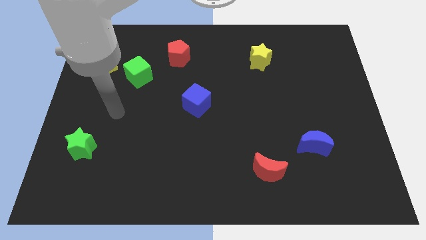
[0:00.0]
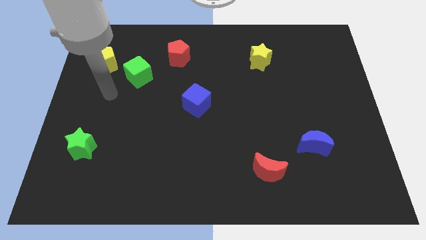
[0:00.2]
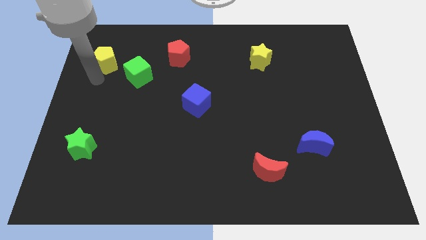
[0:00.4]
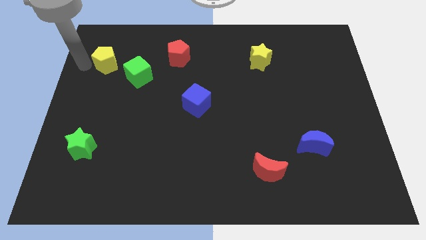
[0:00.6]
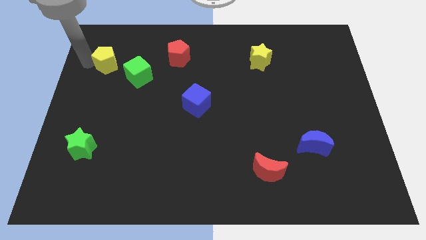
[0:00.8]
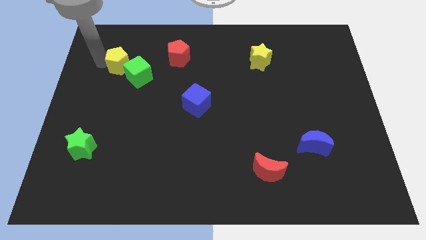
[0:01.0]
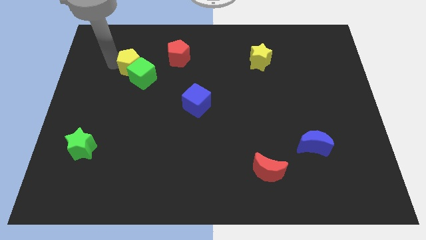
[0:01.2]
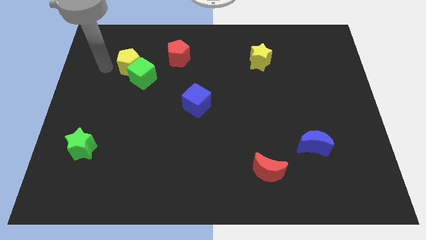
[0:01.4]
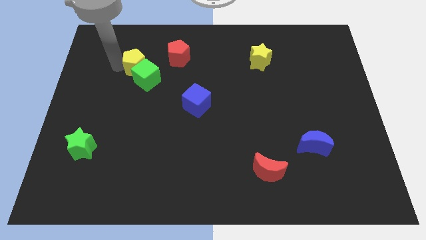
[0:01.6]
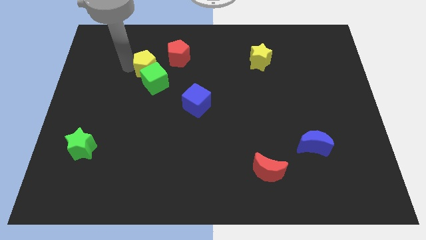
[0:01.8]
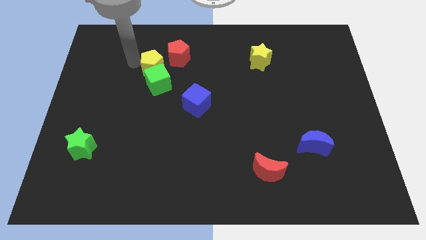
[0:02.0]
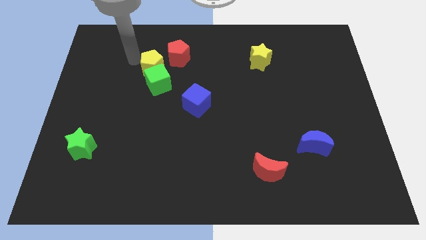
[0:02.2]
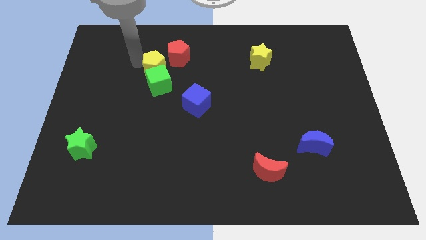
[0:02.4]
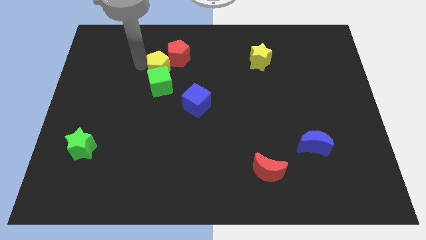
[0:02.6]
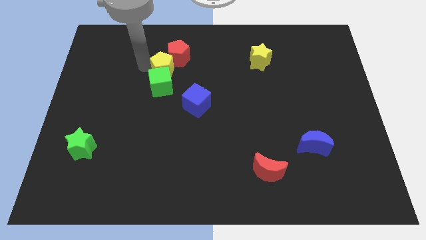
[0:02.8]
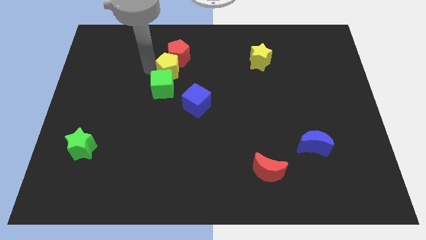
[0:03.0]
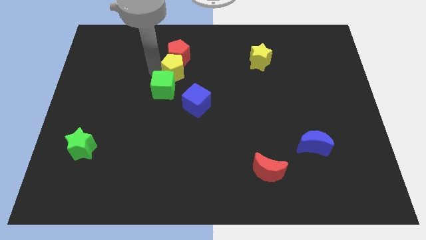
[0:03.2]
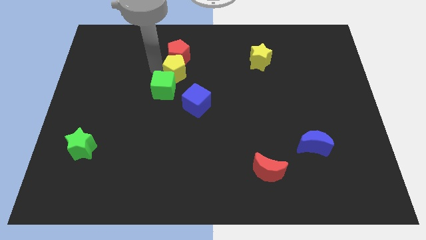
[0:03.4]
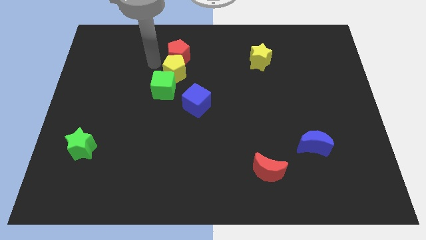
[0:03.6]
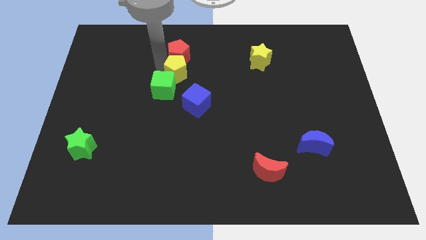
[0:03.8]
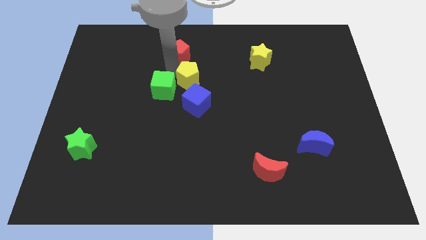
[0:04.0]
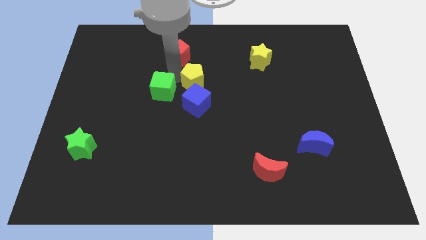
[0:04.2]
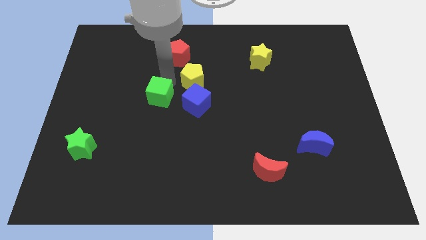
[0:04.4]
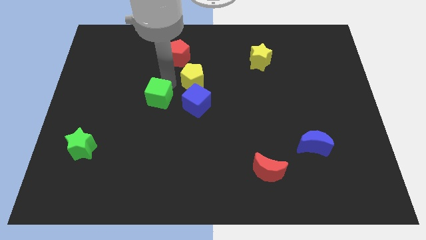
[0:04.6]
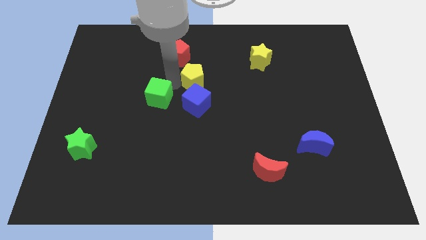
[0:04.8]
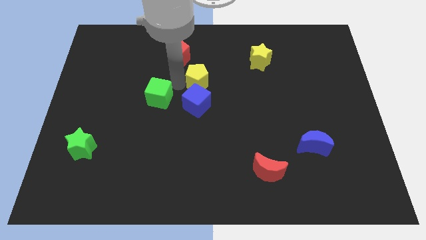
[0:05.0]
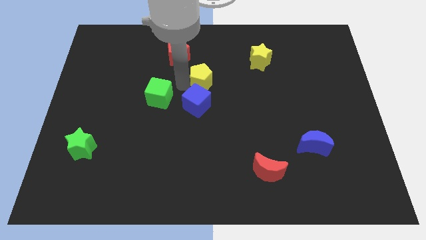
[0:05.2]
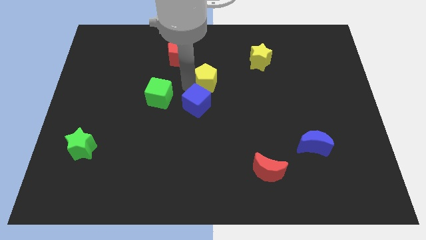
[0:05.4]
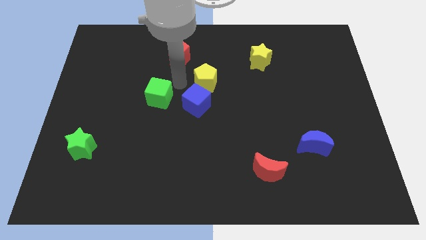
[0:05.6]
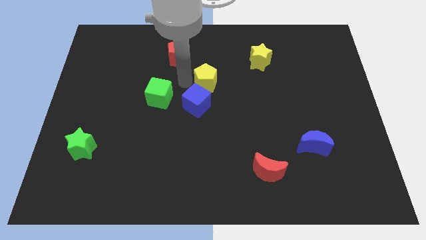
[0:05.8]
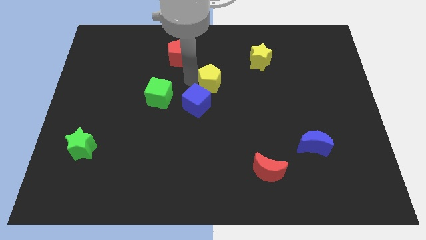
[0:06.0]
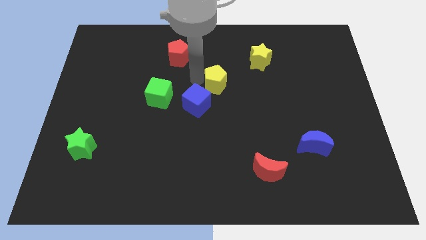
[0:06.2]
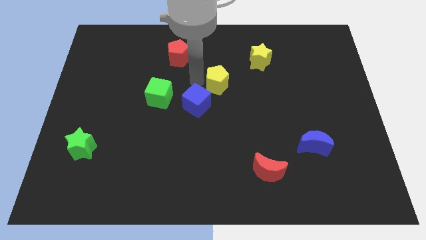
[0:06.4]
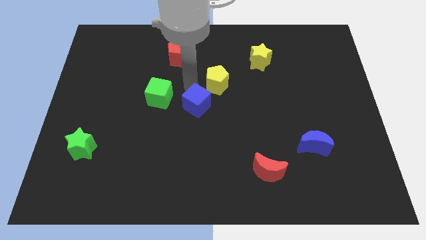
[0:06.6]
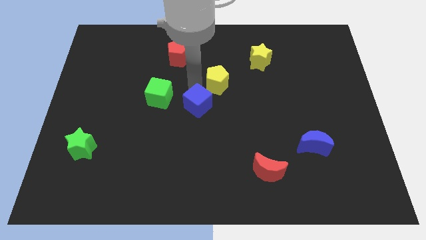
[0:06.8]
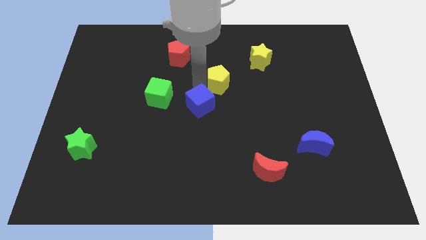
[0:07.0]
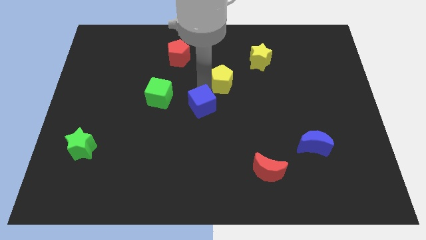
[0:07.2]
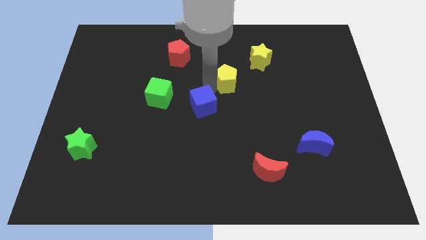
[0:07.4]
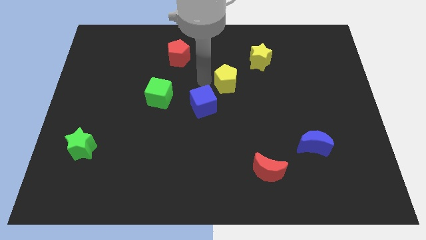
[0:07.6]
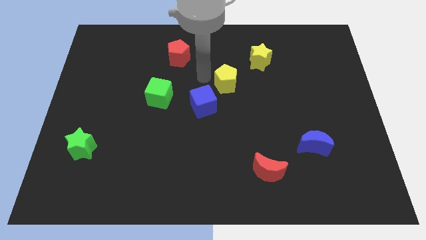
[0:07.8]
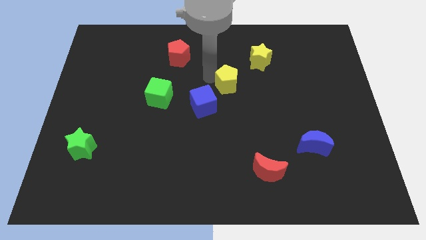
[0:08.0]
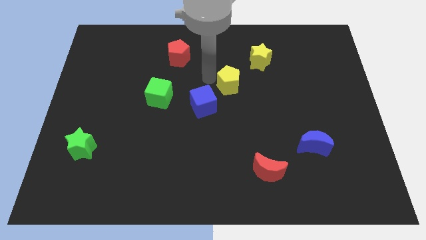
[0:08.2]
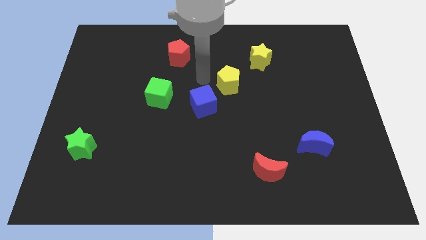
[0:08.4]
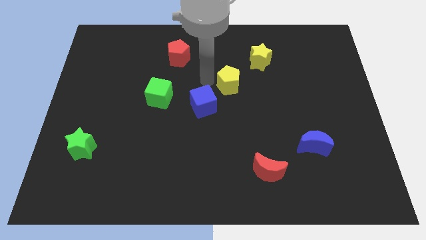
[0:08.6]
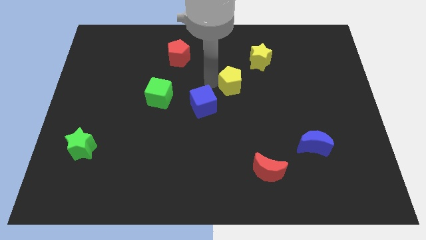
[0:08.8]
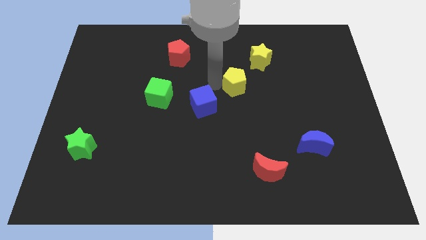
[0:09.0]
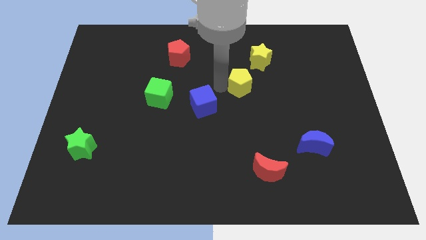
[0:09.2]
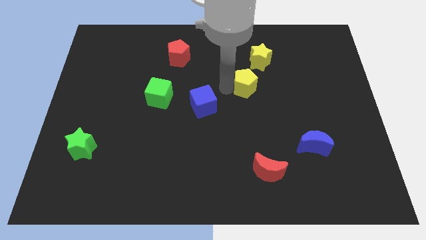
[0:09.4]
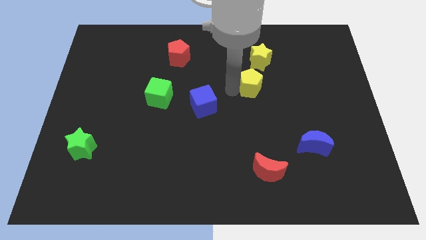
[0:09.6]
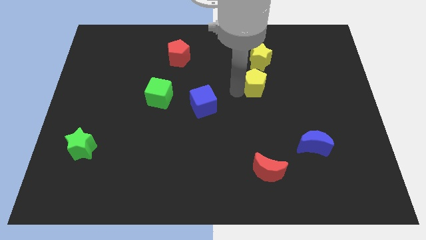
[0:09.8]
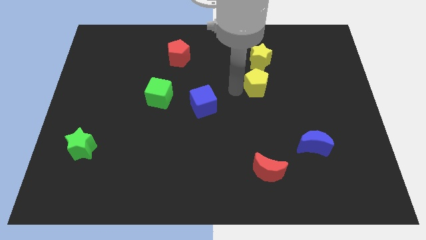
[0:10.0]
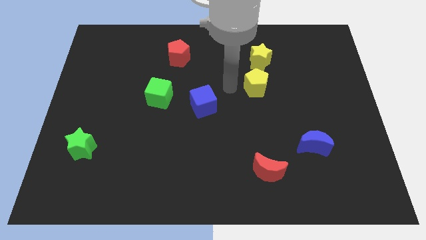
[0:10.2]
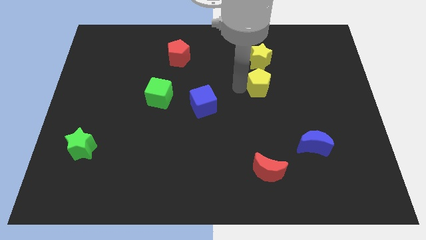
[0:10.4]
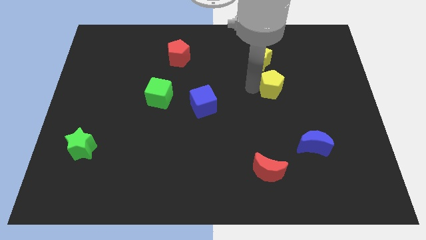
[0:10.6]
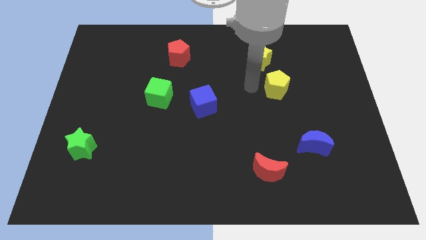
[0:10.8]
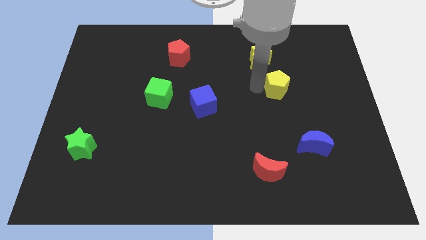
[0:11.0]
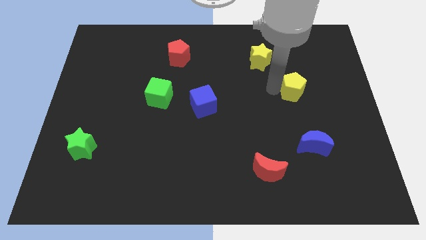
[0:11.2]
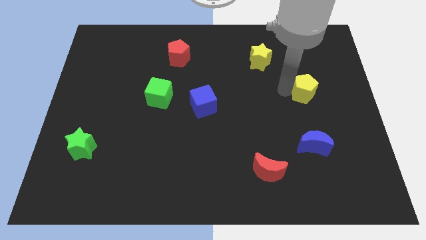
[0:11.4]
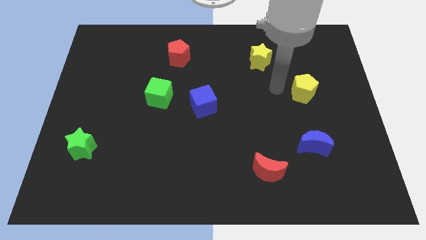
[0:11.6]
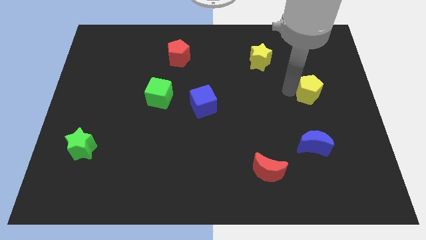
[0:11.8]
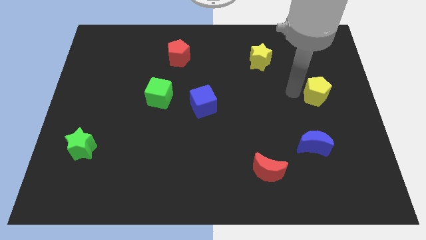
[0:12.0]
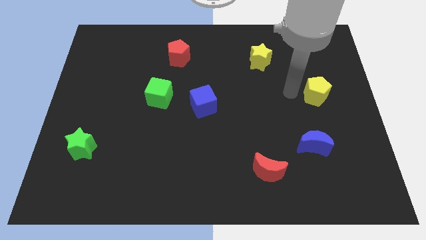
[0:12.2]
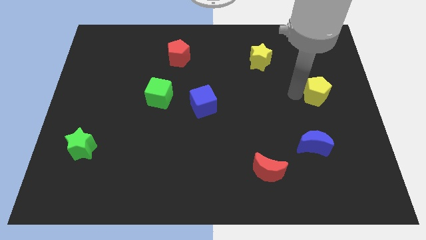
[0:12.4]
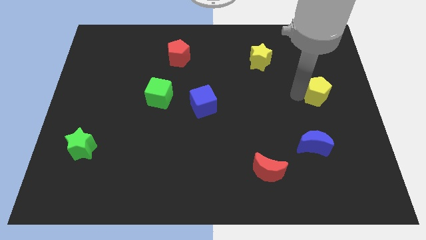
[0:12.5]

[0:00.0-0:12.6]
slide the yellow pentagon to the right side
